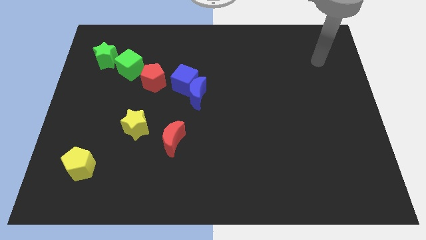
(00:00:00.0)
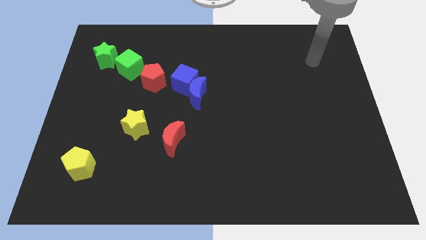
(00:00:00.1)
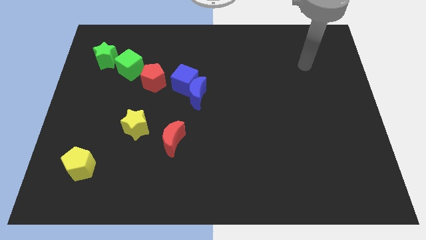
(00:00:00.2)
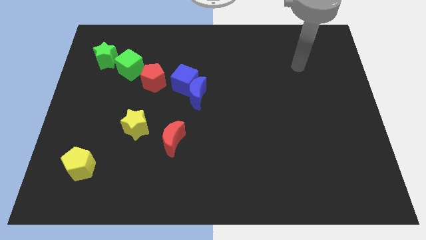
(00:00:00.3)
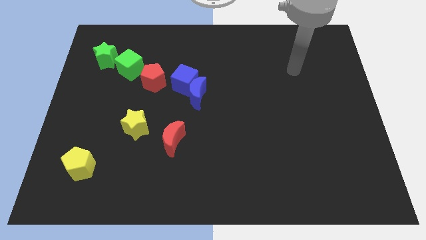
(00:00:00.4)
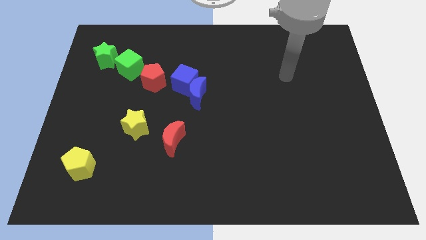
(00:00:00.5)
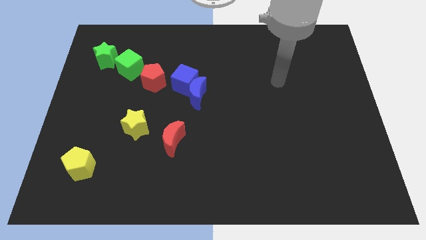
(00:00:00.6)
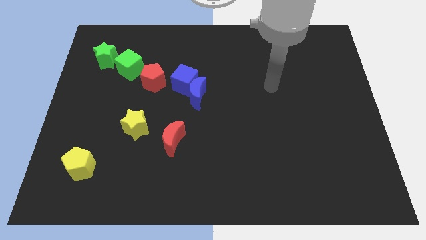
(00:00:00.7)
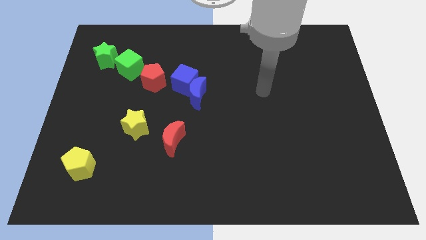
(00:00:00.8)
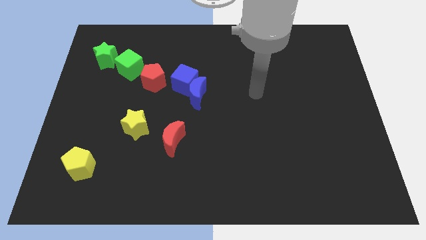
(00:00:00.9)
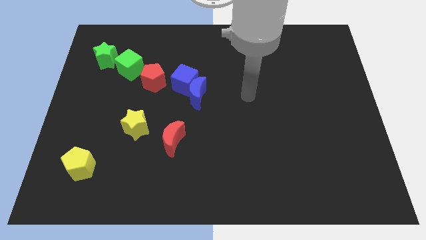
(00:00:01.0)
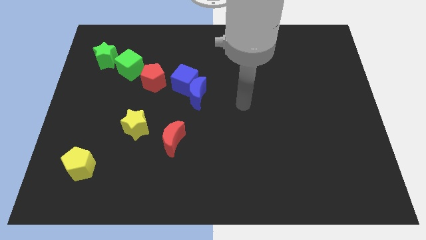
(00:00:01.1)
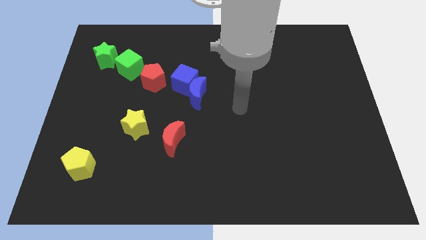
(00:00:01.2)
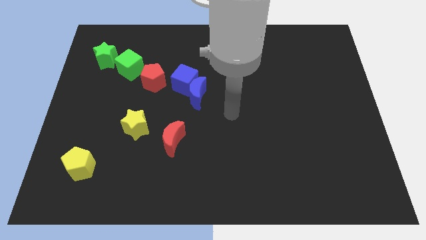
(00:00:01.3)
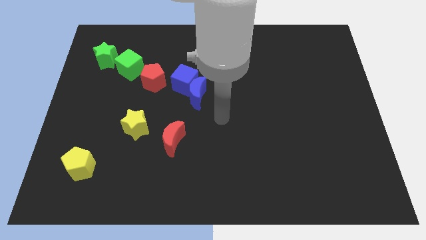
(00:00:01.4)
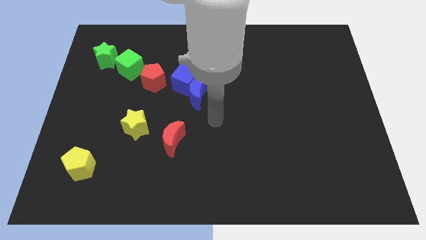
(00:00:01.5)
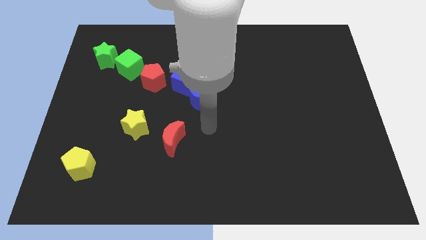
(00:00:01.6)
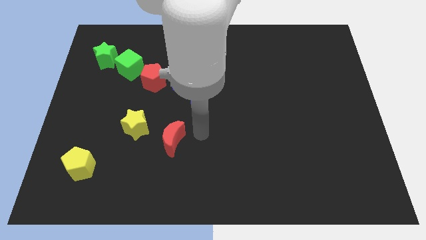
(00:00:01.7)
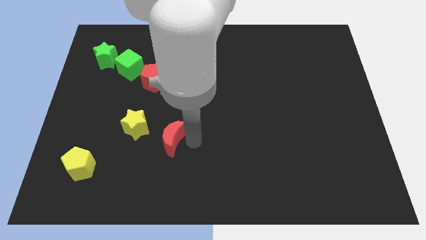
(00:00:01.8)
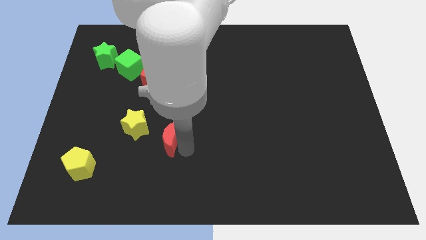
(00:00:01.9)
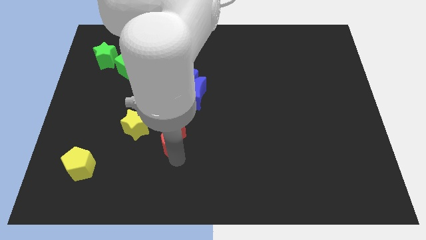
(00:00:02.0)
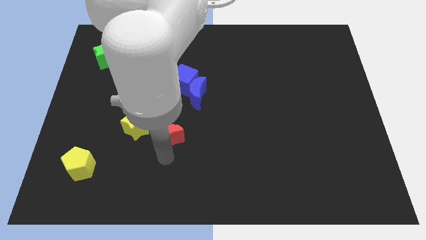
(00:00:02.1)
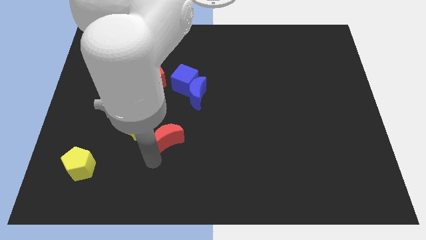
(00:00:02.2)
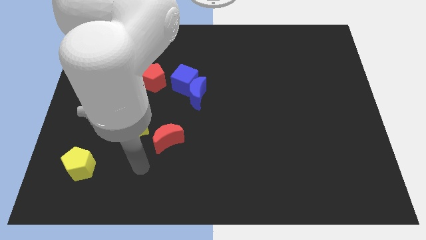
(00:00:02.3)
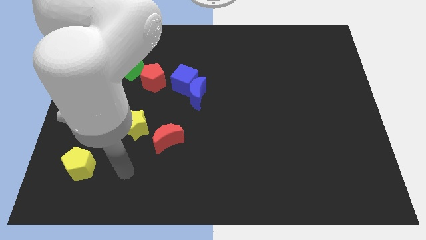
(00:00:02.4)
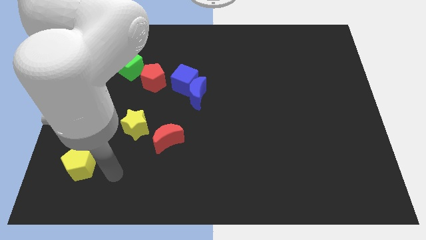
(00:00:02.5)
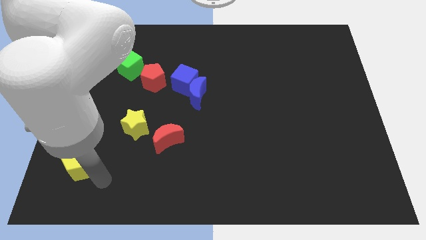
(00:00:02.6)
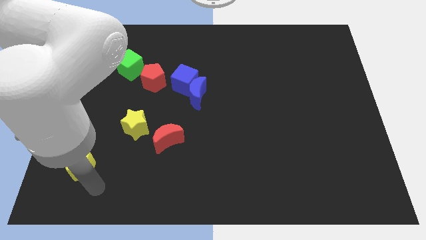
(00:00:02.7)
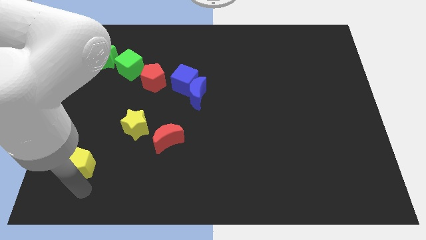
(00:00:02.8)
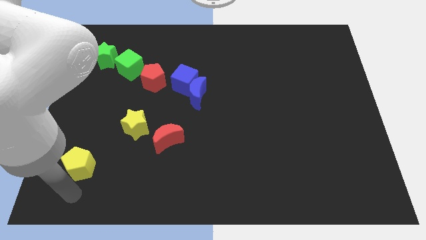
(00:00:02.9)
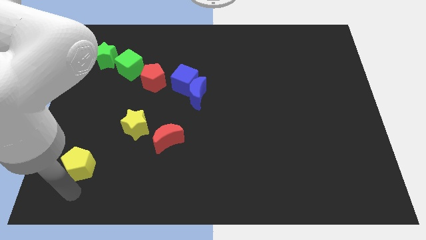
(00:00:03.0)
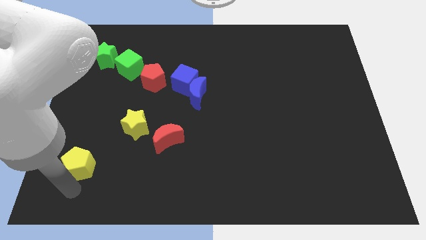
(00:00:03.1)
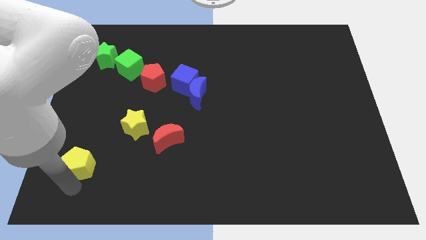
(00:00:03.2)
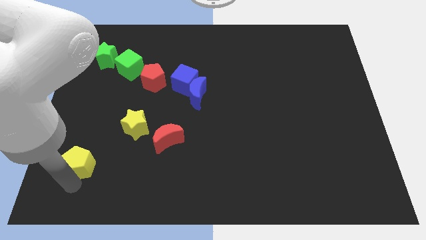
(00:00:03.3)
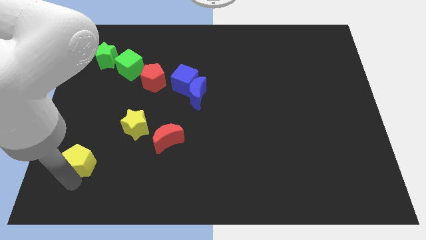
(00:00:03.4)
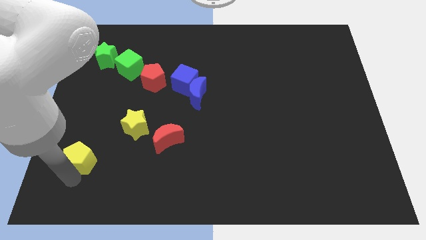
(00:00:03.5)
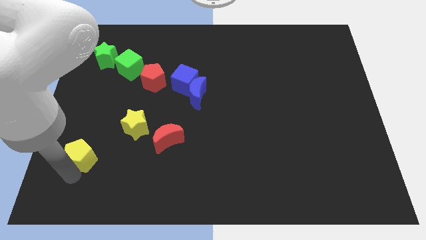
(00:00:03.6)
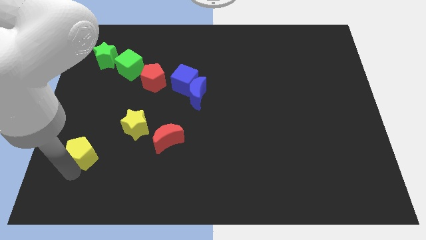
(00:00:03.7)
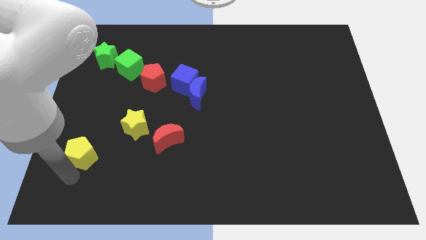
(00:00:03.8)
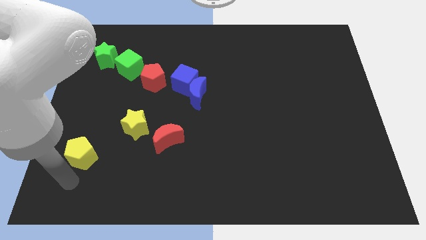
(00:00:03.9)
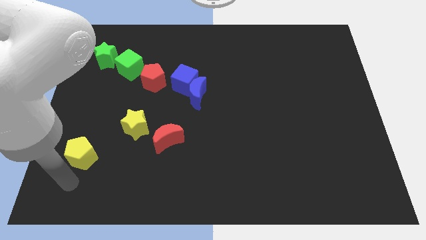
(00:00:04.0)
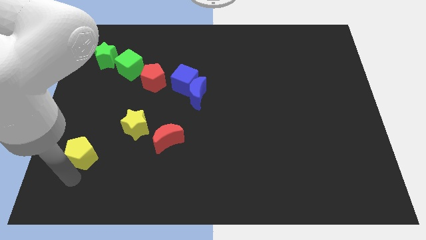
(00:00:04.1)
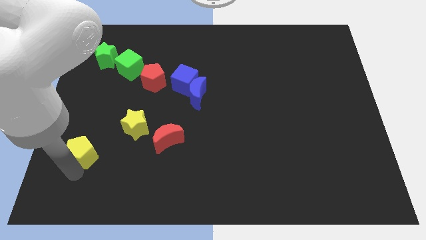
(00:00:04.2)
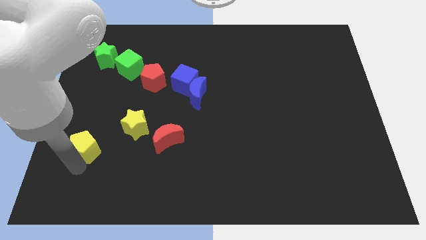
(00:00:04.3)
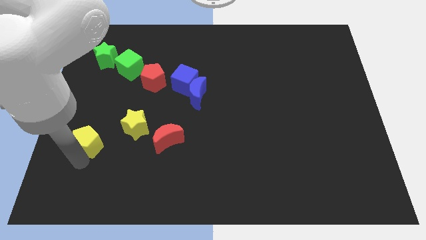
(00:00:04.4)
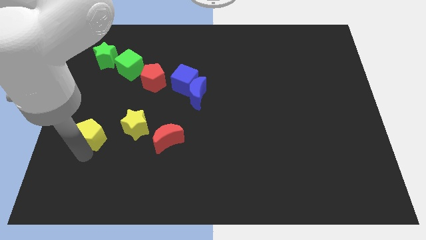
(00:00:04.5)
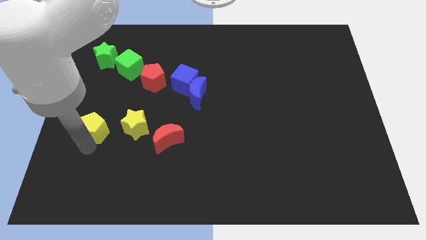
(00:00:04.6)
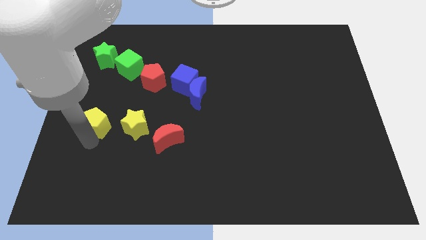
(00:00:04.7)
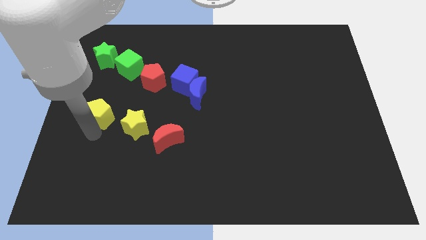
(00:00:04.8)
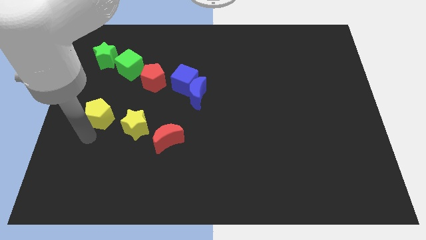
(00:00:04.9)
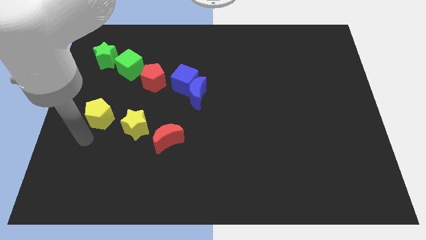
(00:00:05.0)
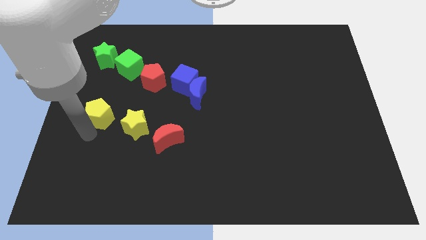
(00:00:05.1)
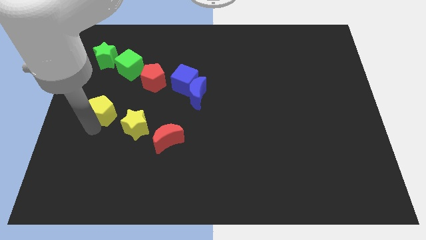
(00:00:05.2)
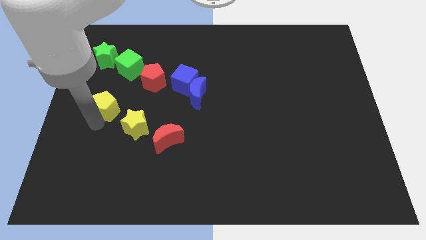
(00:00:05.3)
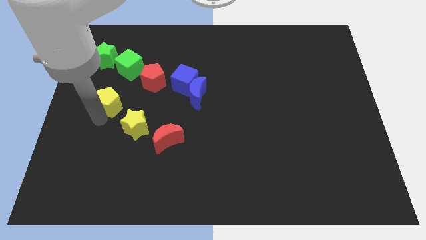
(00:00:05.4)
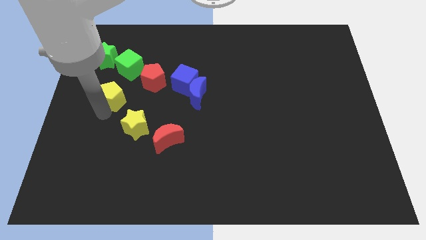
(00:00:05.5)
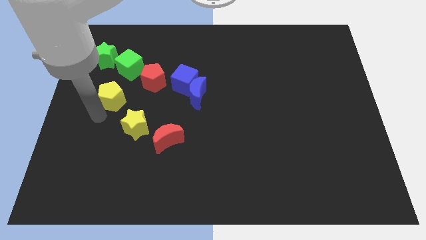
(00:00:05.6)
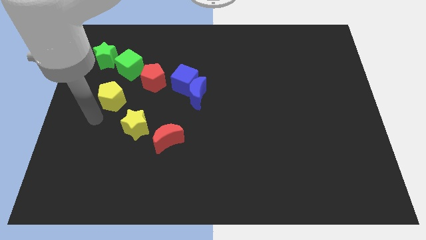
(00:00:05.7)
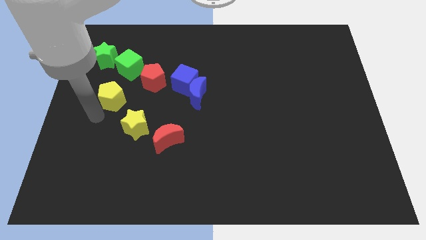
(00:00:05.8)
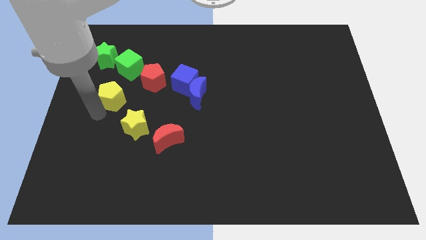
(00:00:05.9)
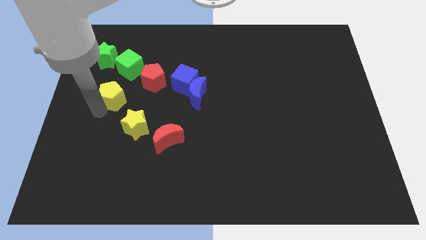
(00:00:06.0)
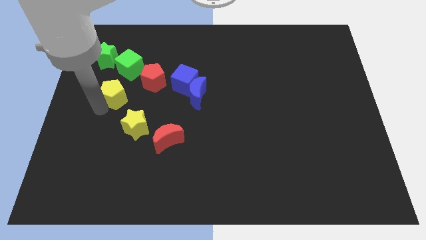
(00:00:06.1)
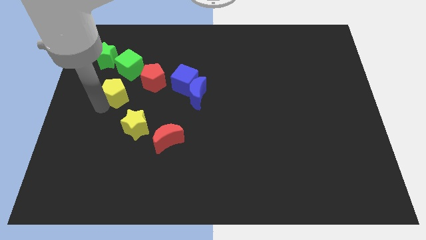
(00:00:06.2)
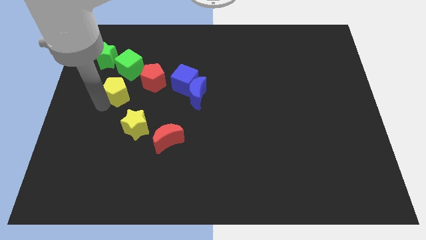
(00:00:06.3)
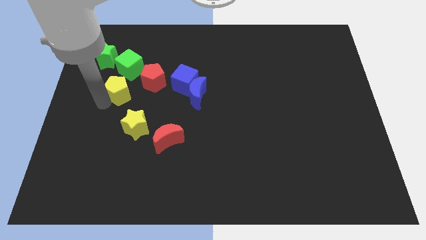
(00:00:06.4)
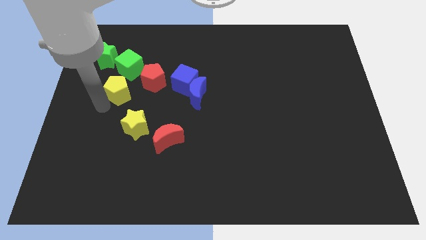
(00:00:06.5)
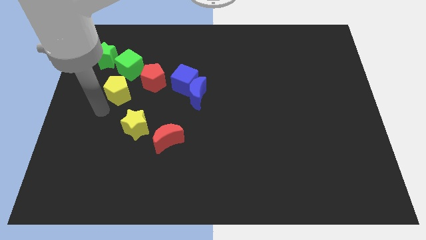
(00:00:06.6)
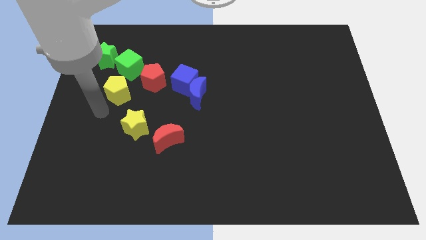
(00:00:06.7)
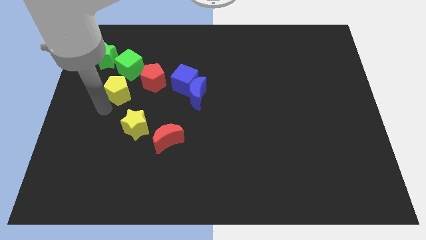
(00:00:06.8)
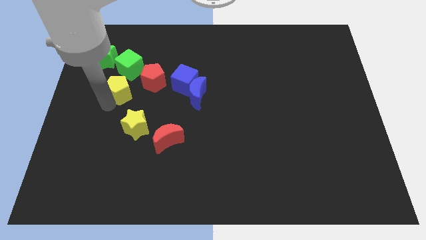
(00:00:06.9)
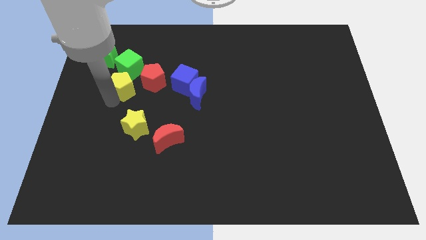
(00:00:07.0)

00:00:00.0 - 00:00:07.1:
push the yellow pentagon diagonally down and to the right of the green star

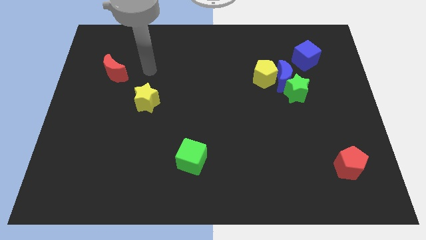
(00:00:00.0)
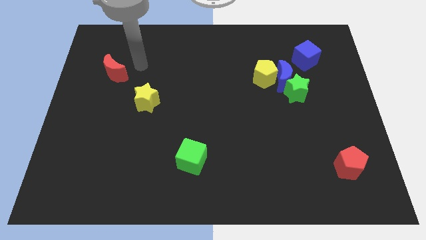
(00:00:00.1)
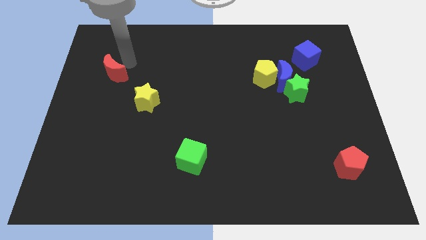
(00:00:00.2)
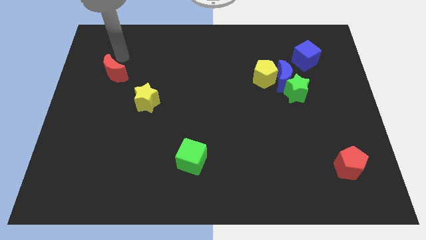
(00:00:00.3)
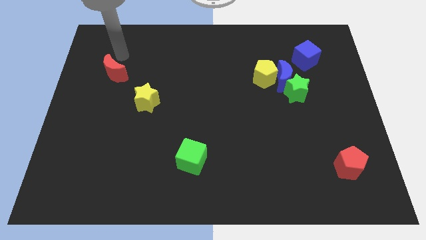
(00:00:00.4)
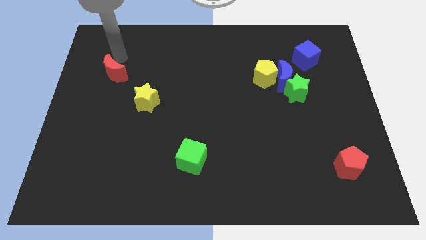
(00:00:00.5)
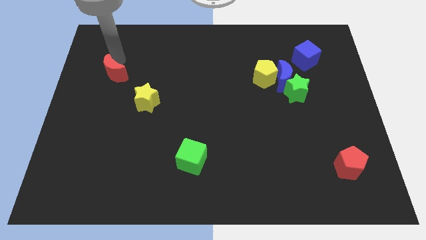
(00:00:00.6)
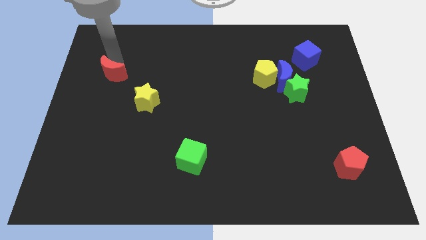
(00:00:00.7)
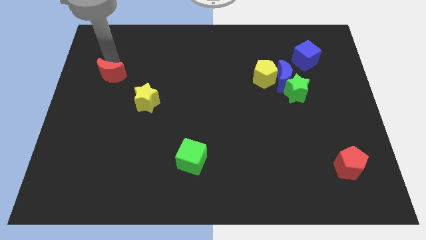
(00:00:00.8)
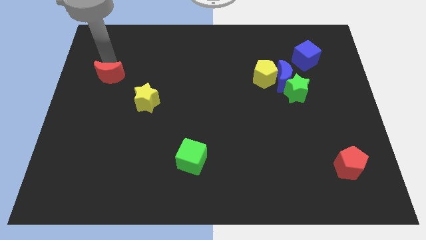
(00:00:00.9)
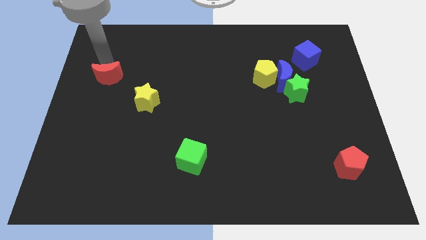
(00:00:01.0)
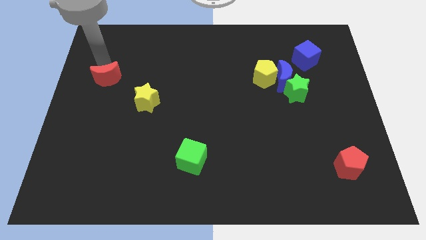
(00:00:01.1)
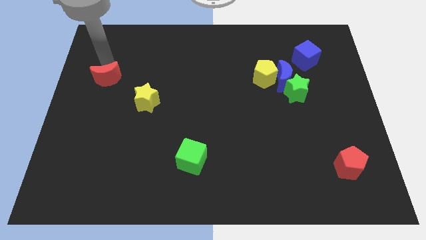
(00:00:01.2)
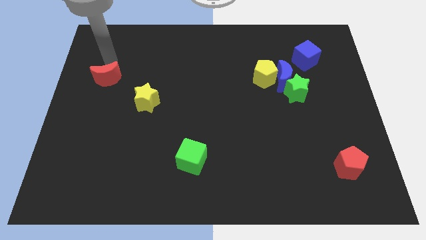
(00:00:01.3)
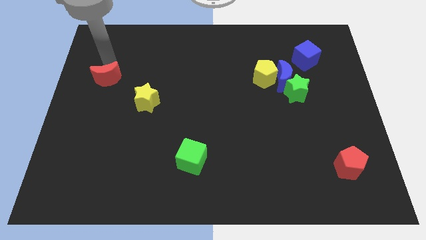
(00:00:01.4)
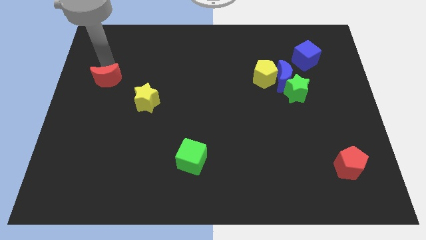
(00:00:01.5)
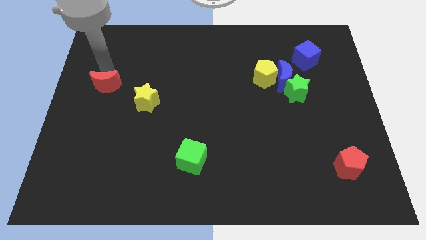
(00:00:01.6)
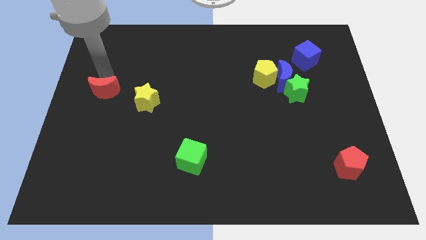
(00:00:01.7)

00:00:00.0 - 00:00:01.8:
put the red moon to the left of the yellow star
